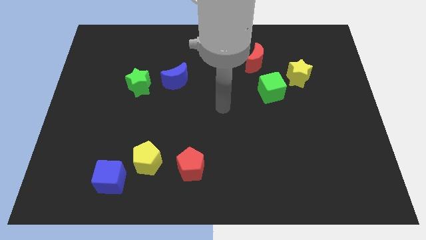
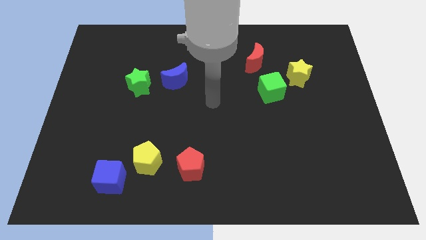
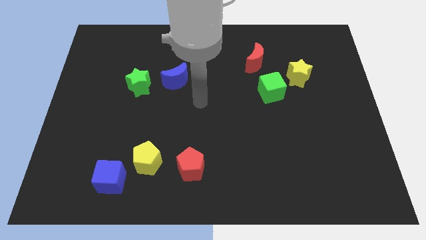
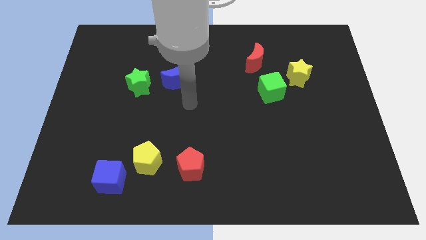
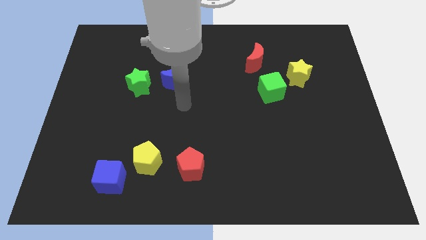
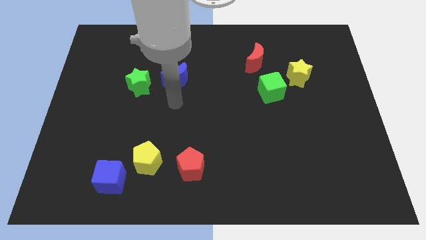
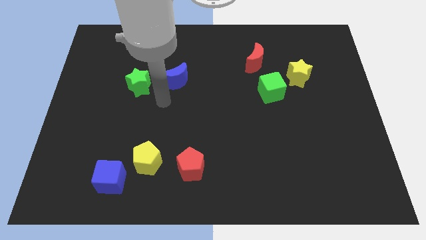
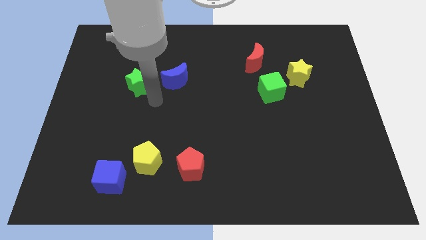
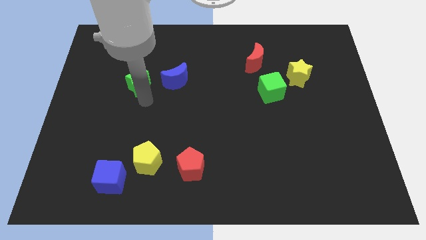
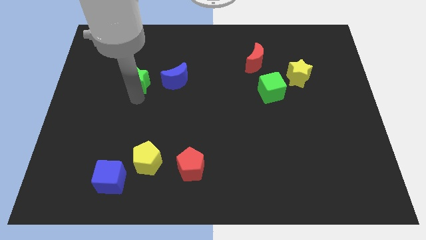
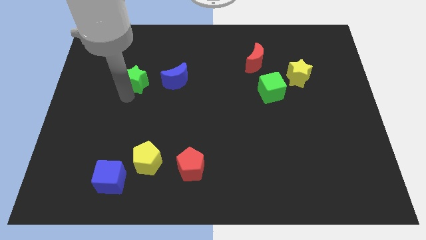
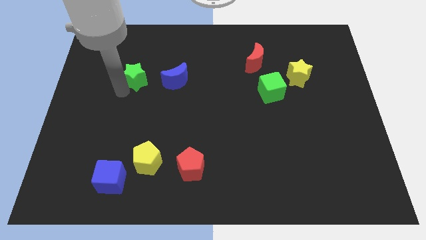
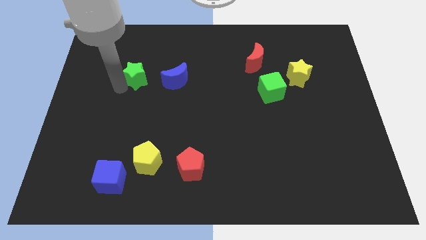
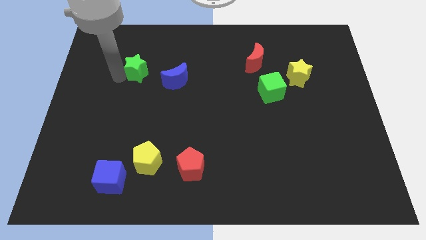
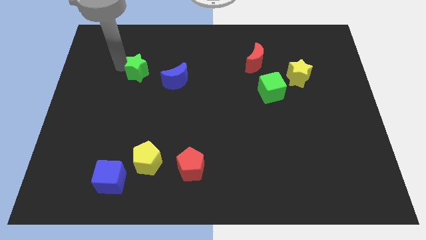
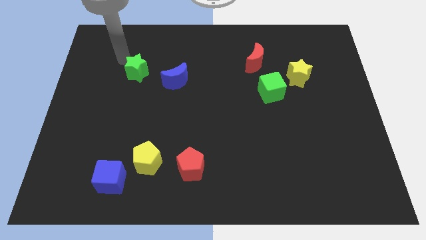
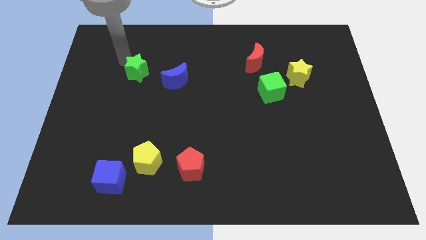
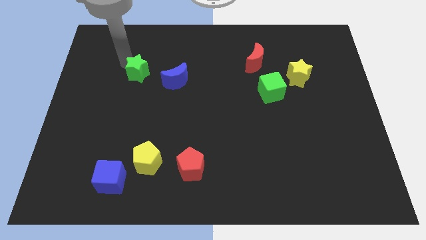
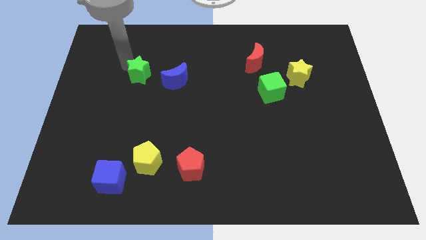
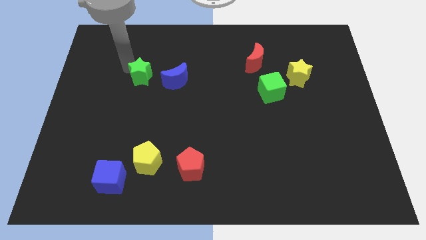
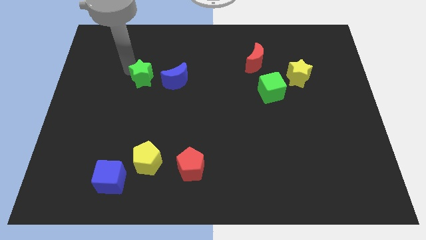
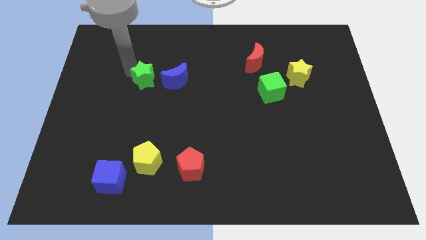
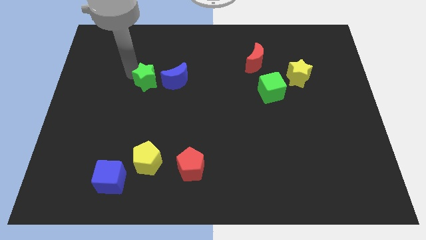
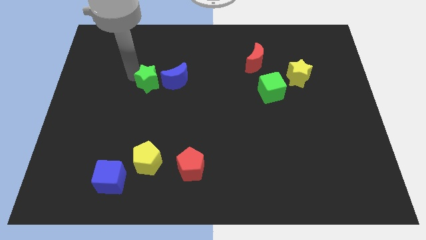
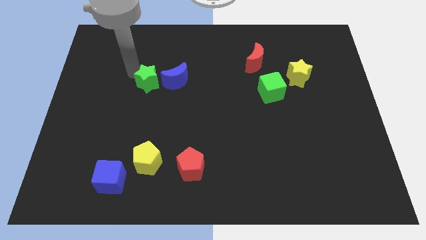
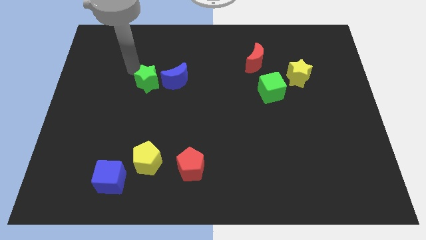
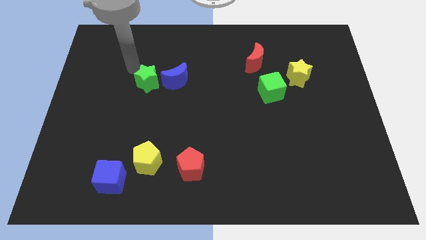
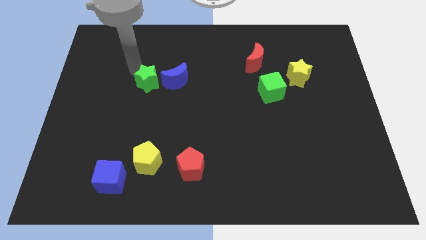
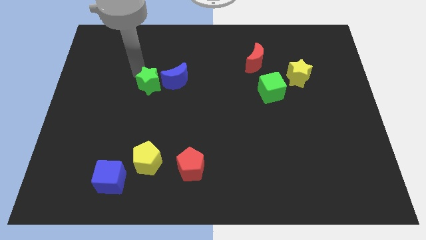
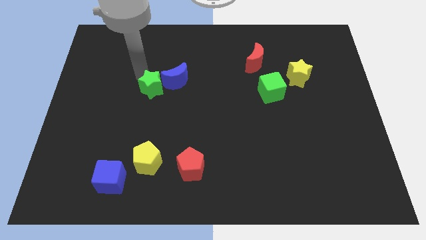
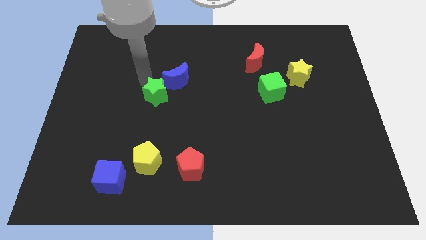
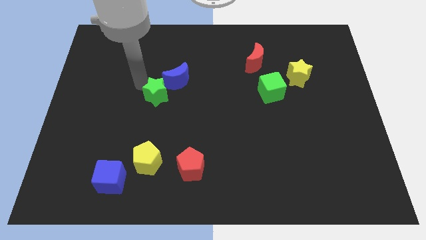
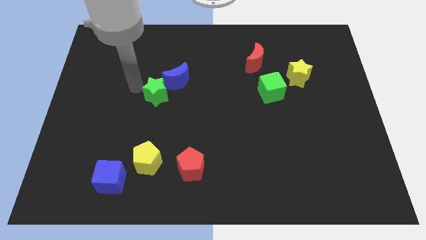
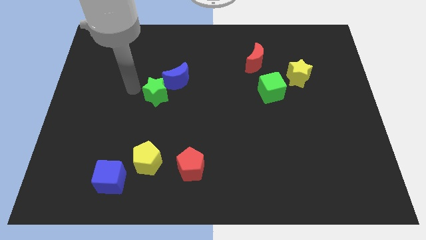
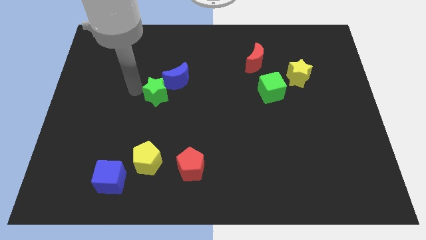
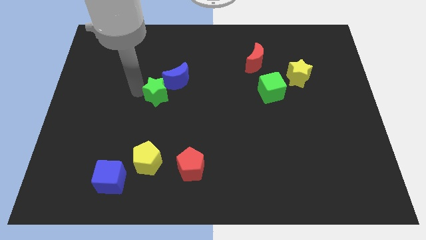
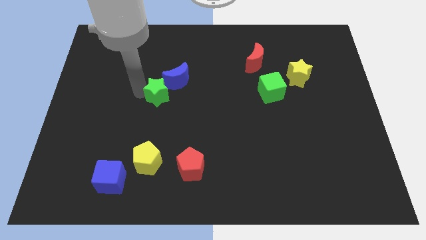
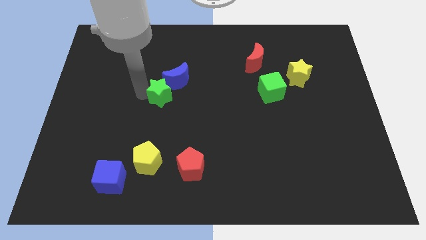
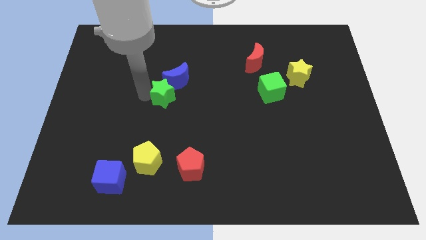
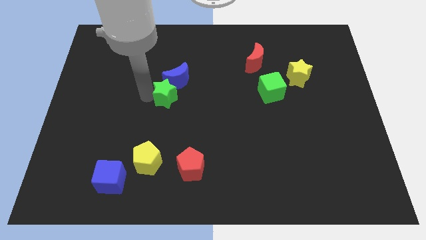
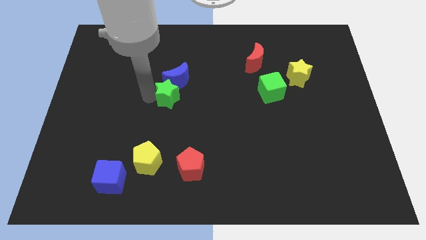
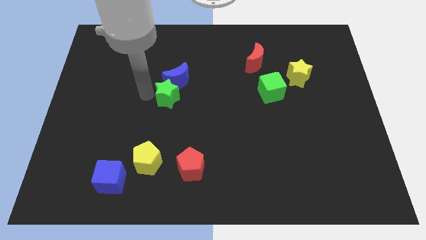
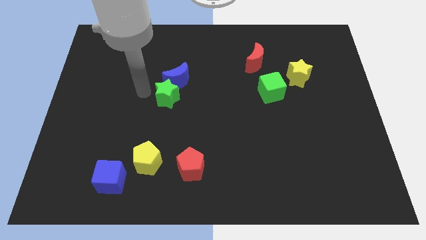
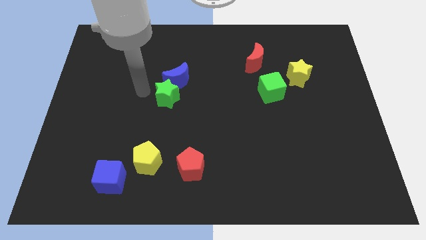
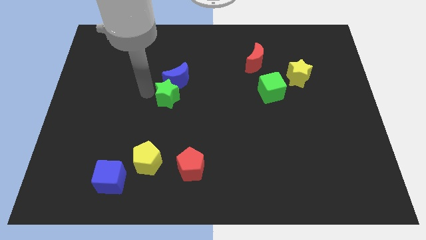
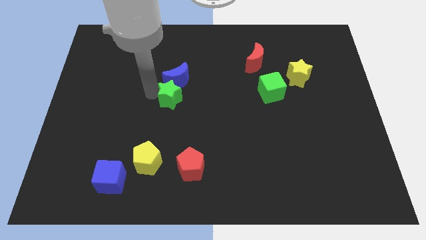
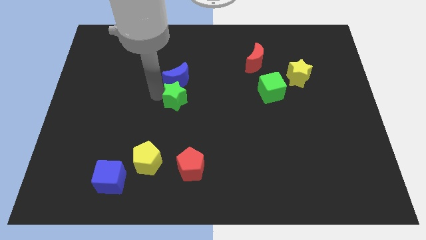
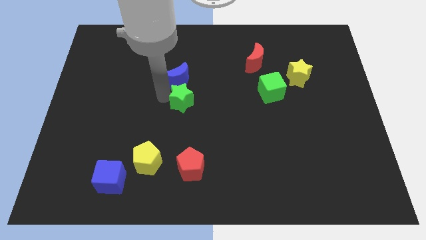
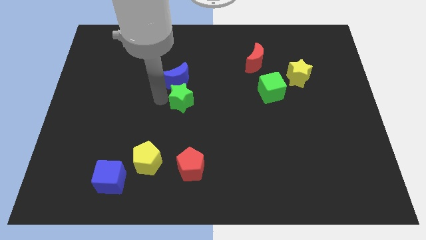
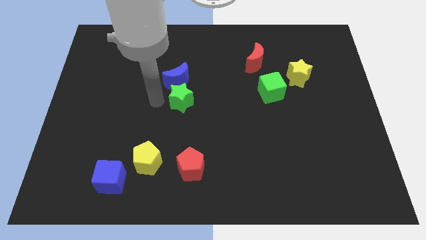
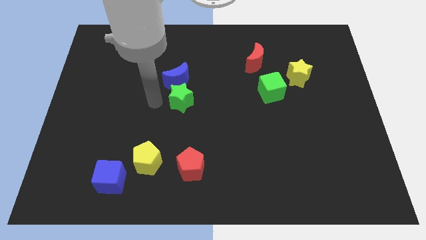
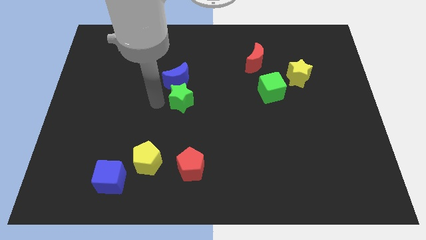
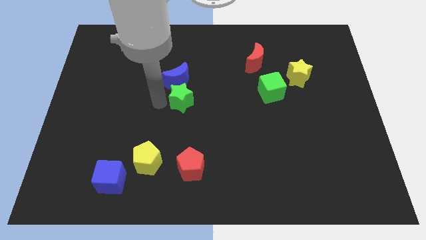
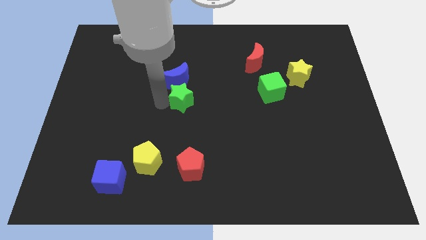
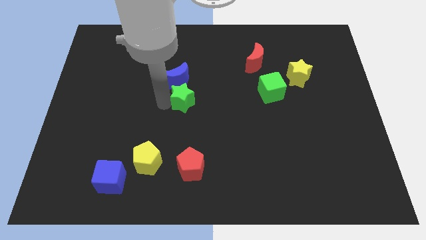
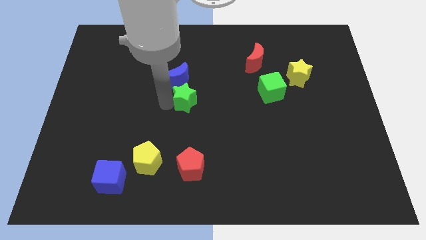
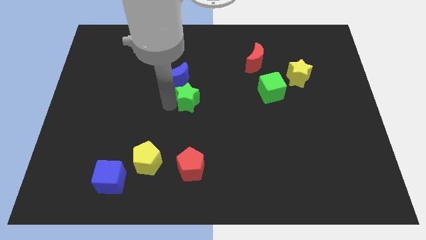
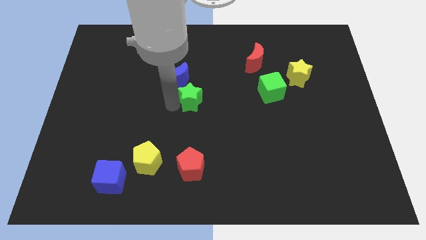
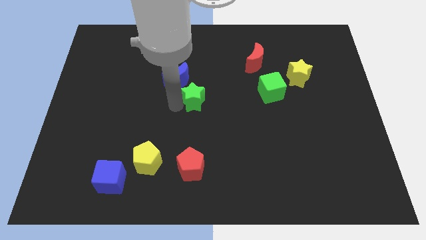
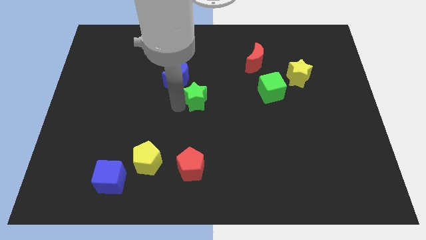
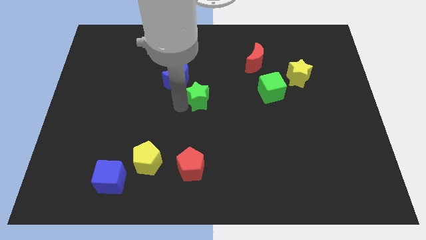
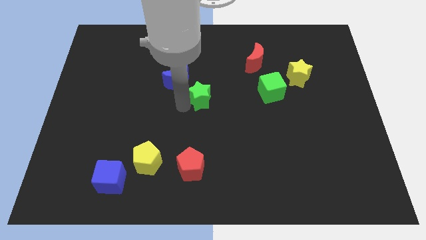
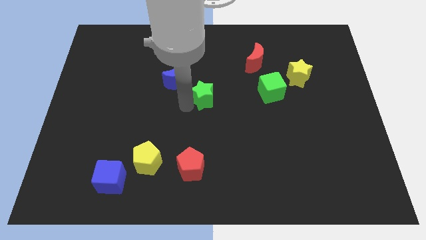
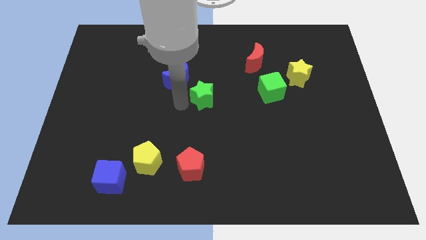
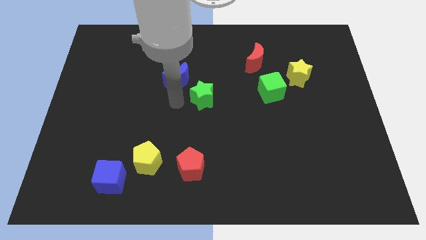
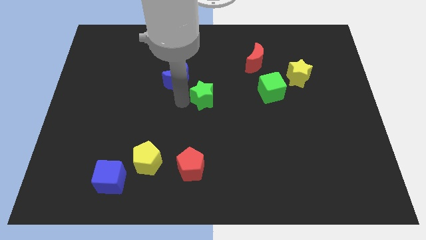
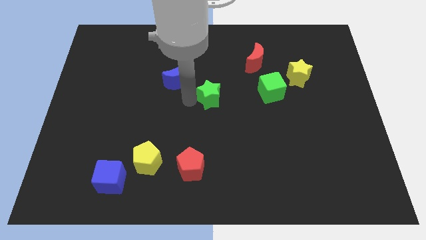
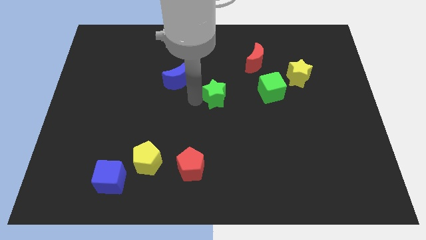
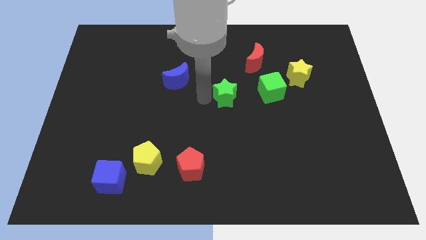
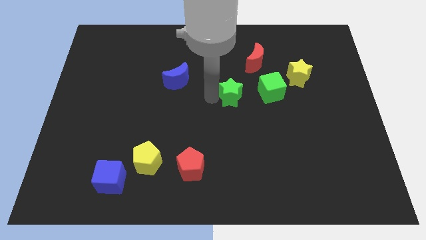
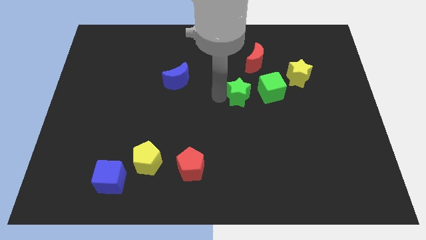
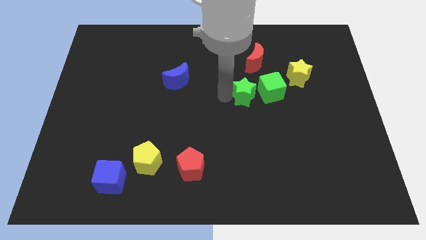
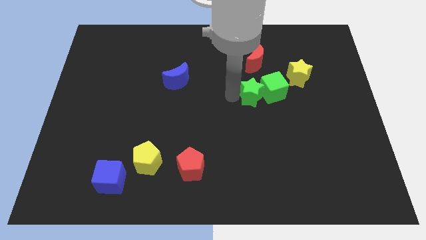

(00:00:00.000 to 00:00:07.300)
push the green star close to the green cube
